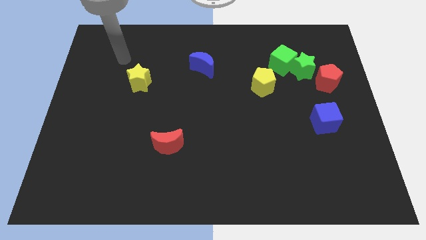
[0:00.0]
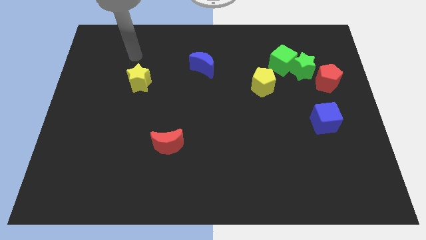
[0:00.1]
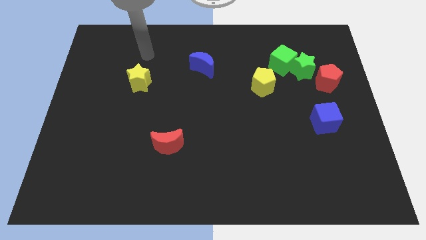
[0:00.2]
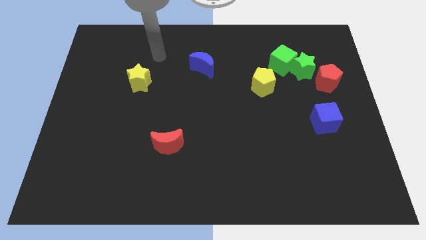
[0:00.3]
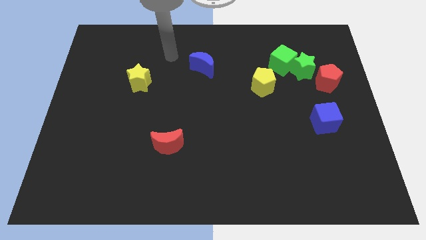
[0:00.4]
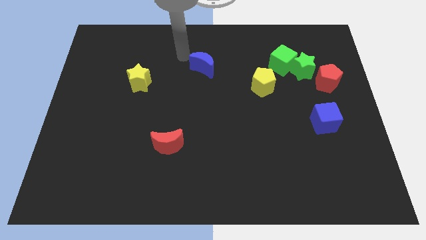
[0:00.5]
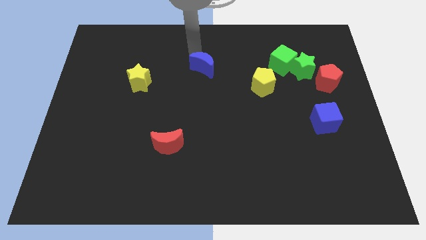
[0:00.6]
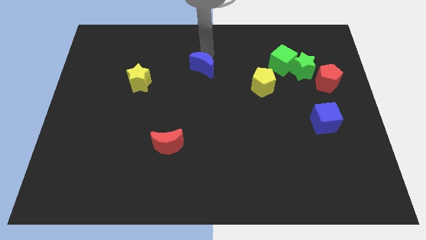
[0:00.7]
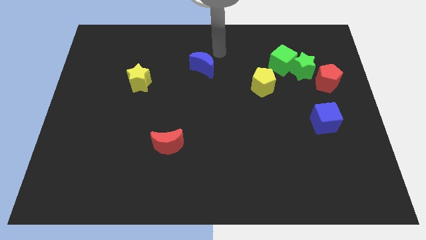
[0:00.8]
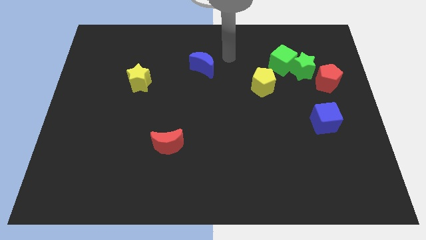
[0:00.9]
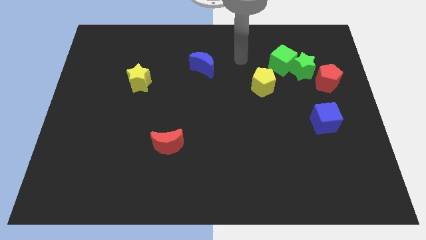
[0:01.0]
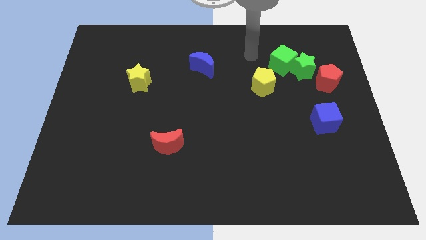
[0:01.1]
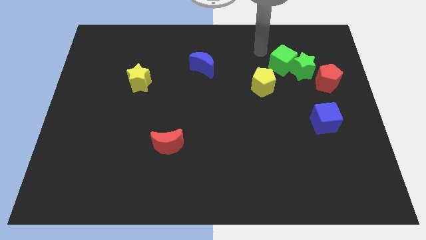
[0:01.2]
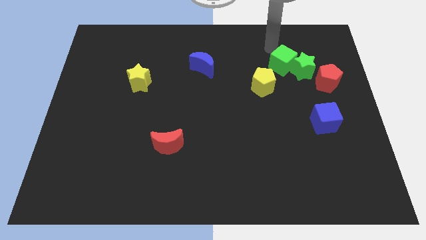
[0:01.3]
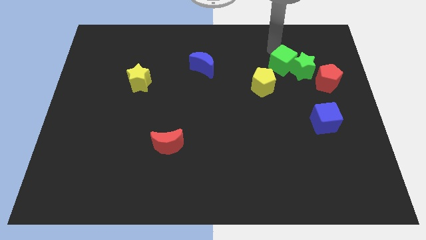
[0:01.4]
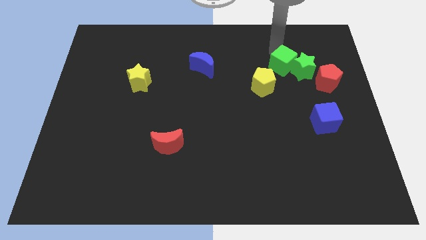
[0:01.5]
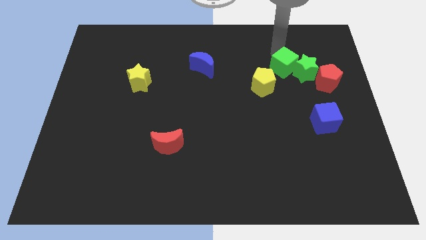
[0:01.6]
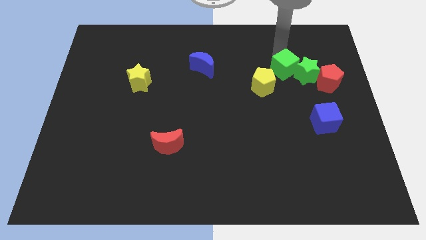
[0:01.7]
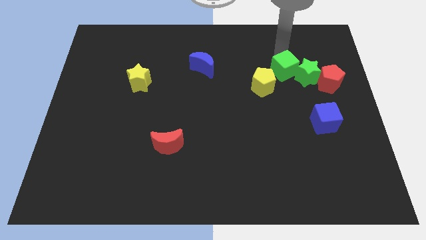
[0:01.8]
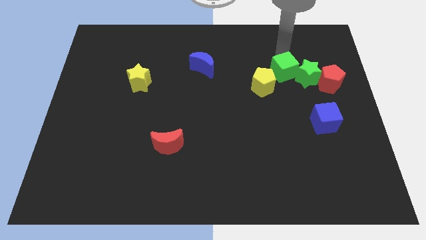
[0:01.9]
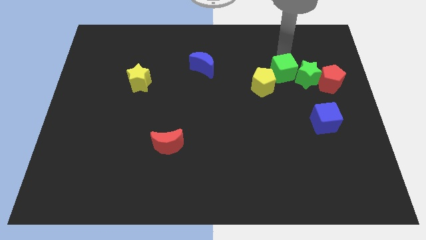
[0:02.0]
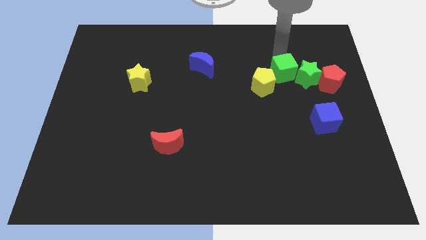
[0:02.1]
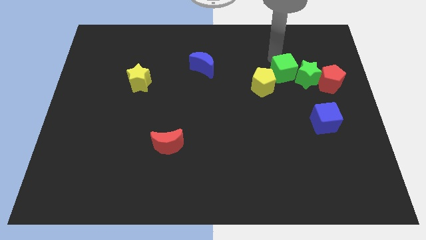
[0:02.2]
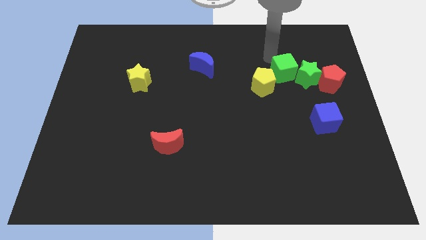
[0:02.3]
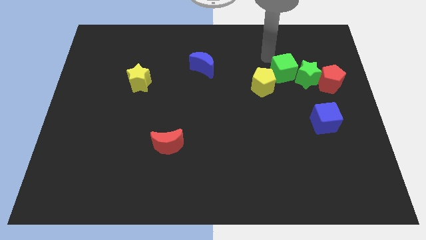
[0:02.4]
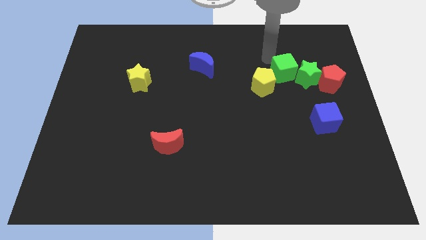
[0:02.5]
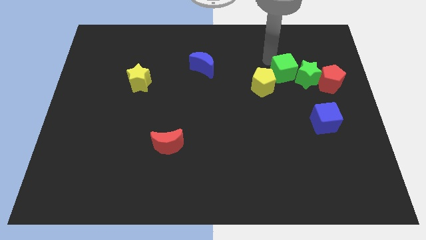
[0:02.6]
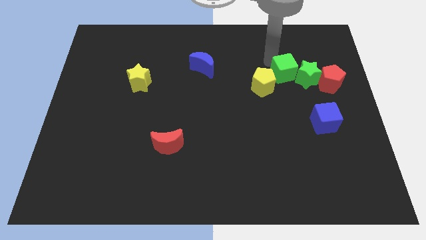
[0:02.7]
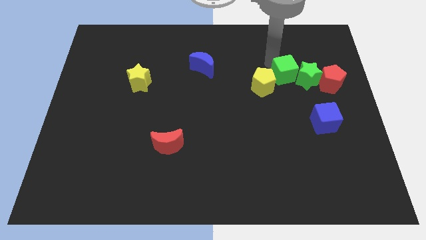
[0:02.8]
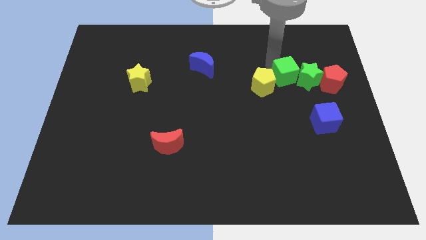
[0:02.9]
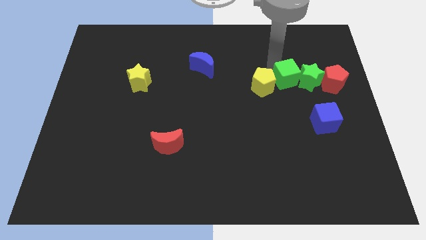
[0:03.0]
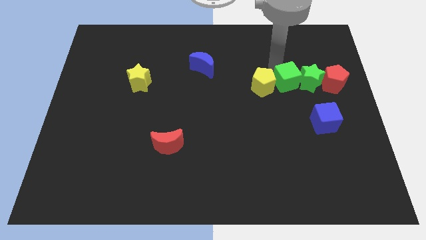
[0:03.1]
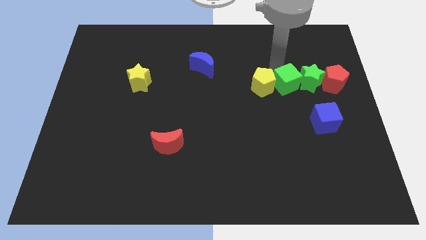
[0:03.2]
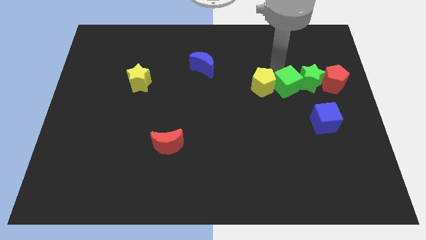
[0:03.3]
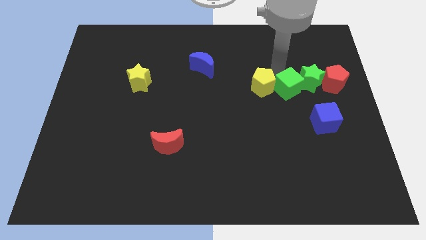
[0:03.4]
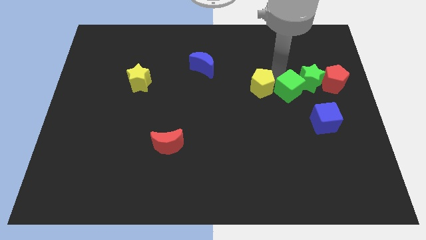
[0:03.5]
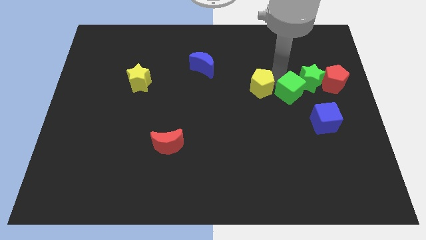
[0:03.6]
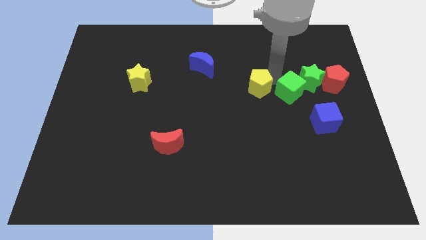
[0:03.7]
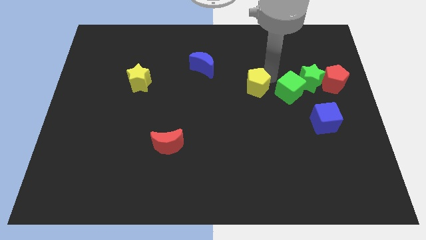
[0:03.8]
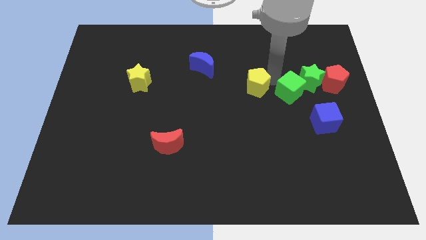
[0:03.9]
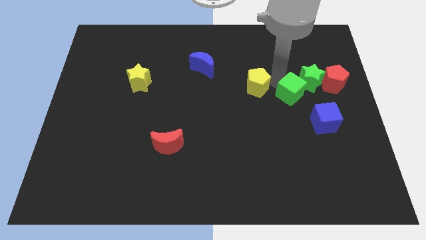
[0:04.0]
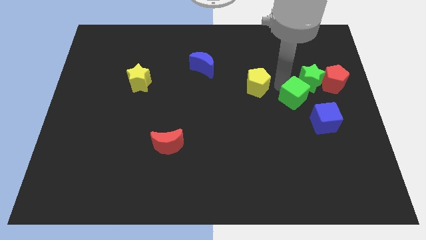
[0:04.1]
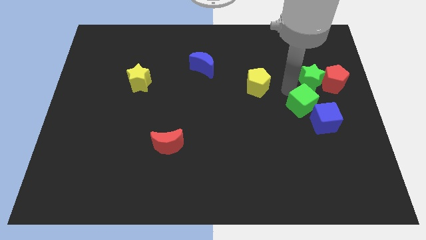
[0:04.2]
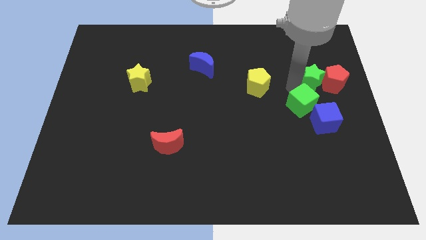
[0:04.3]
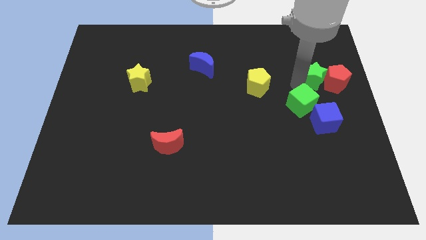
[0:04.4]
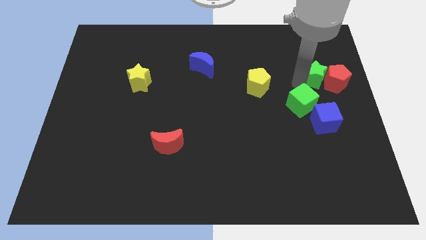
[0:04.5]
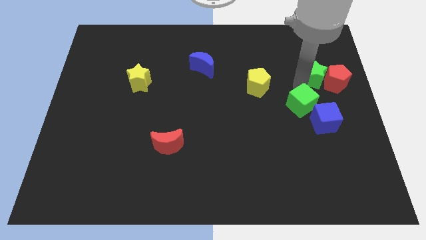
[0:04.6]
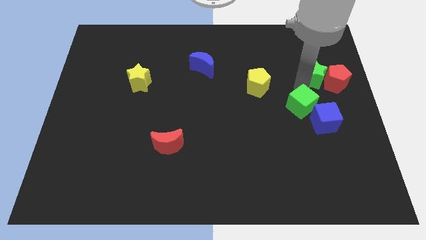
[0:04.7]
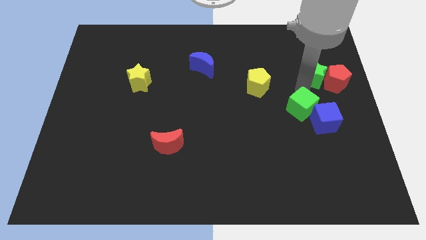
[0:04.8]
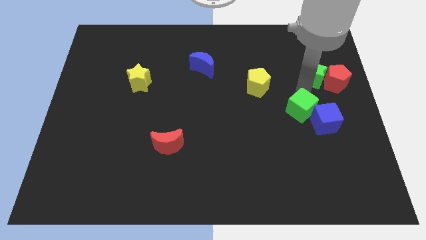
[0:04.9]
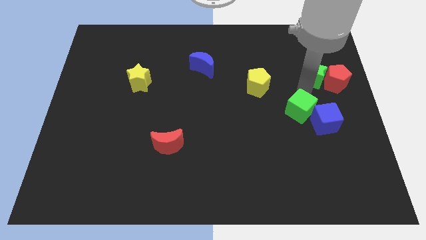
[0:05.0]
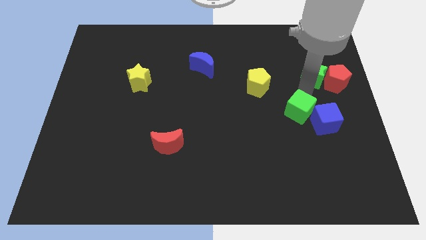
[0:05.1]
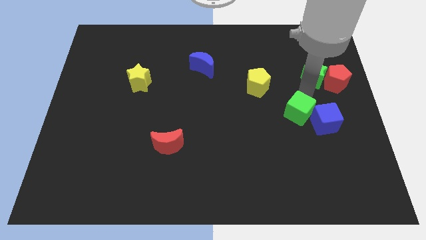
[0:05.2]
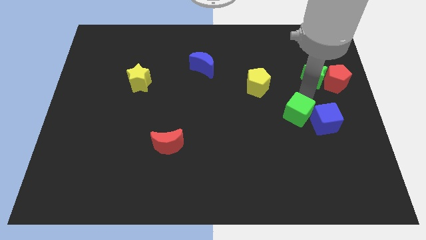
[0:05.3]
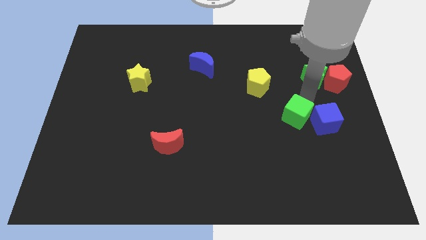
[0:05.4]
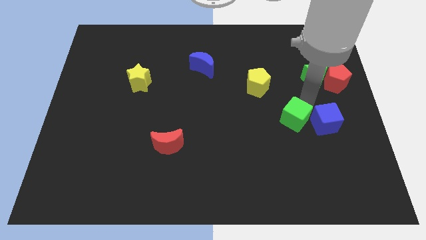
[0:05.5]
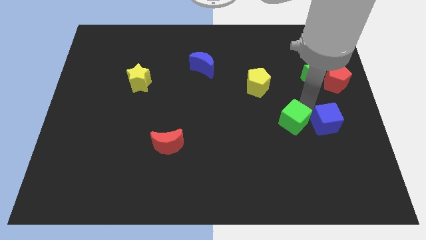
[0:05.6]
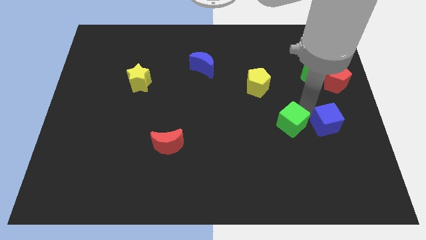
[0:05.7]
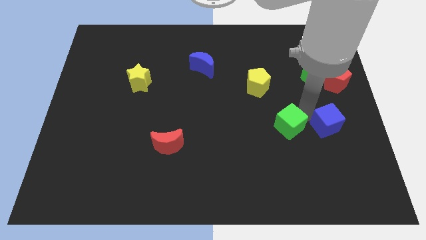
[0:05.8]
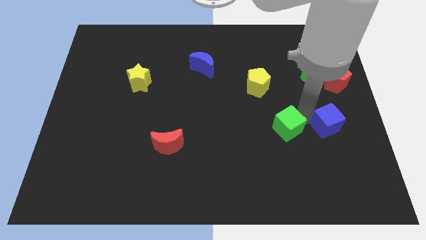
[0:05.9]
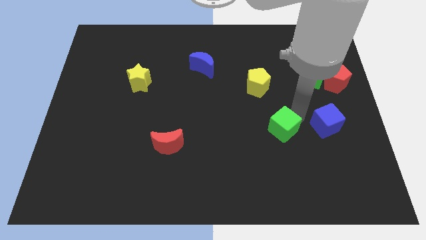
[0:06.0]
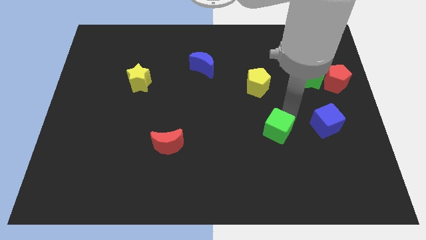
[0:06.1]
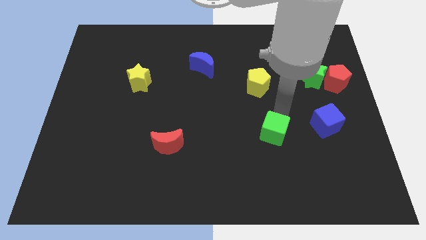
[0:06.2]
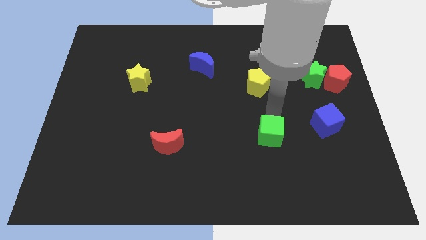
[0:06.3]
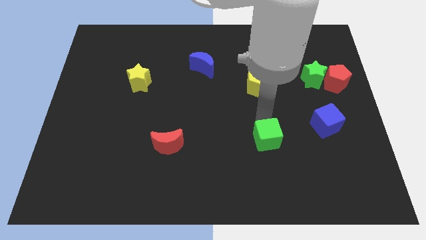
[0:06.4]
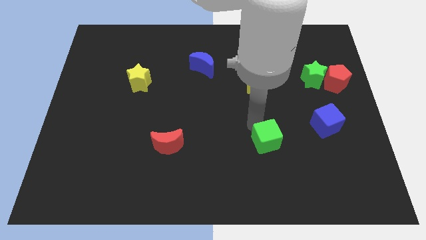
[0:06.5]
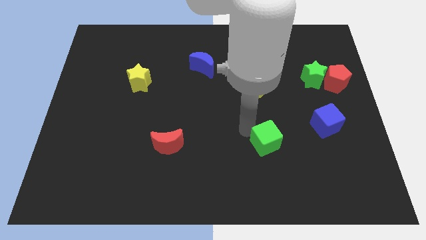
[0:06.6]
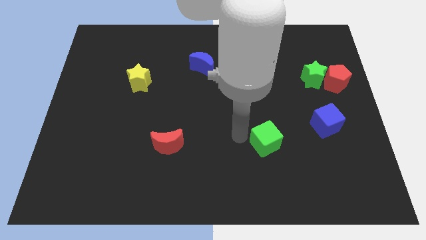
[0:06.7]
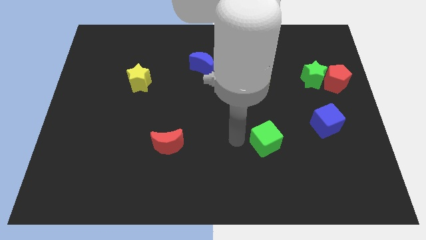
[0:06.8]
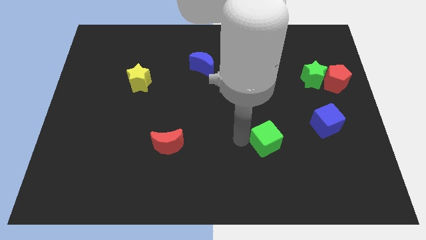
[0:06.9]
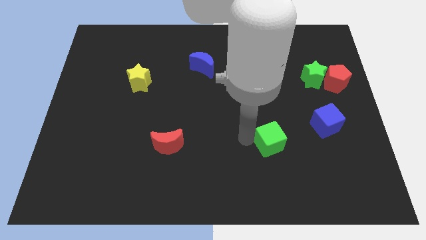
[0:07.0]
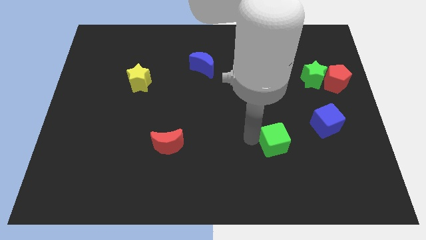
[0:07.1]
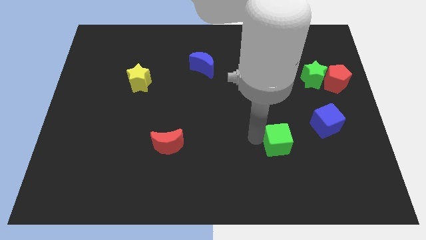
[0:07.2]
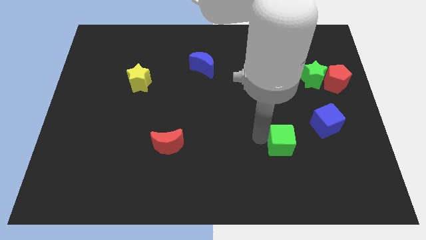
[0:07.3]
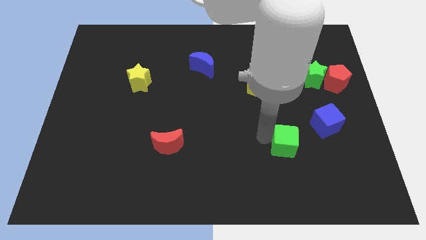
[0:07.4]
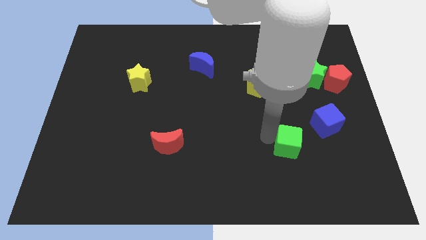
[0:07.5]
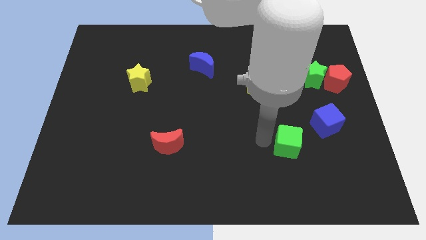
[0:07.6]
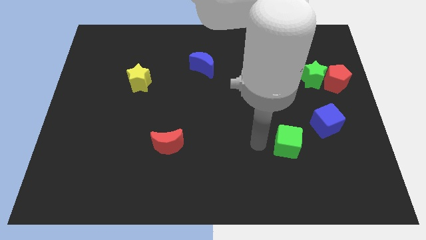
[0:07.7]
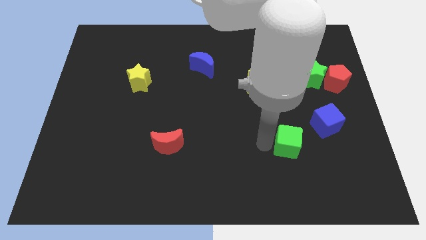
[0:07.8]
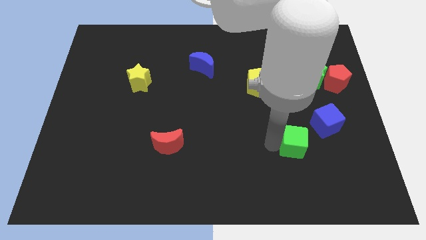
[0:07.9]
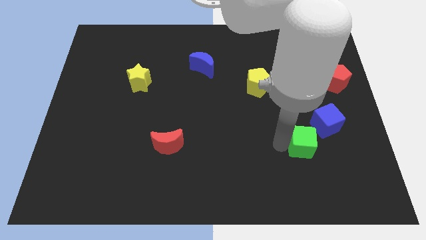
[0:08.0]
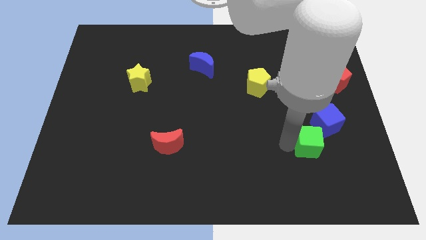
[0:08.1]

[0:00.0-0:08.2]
put the green cube below the blue cube
